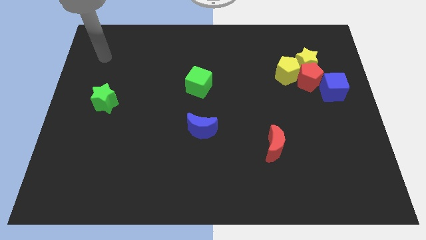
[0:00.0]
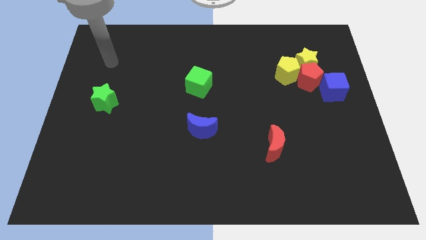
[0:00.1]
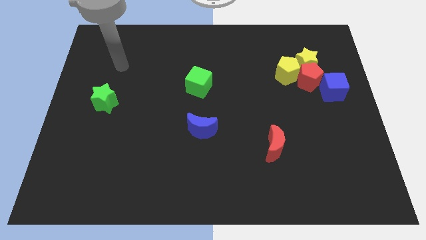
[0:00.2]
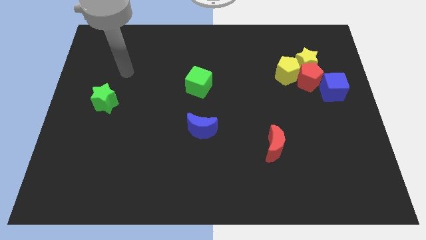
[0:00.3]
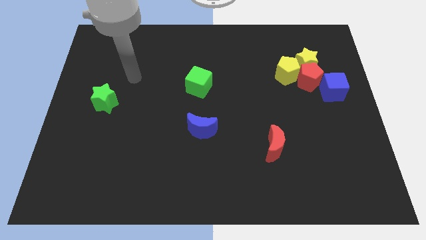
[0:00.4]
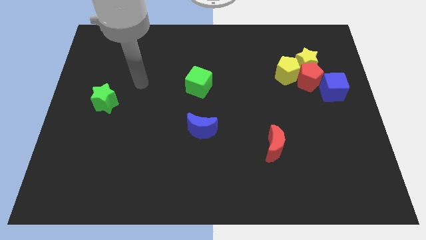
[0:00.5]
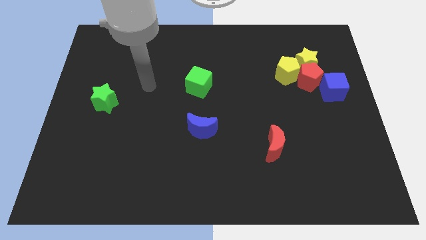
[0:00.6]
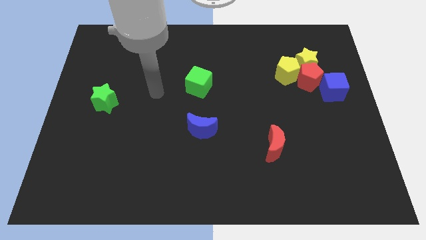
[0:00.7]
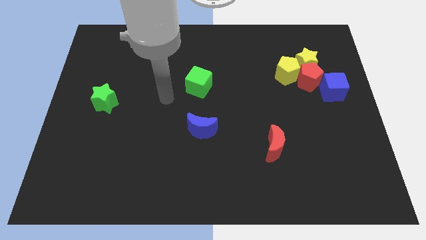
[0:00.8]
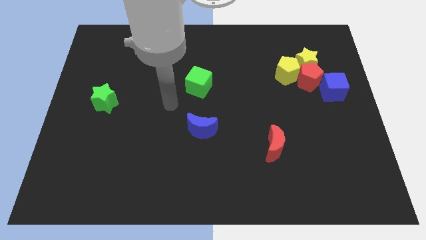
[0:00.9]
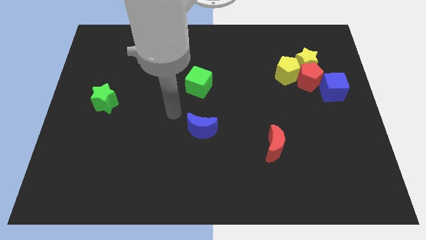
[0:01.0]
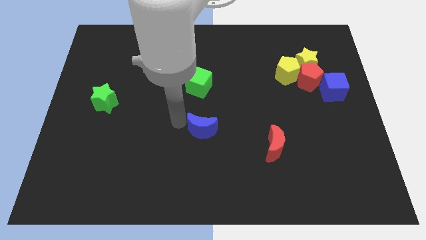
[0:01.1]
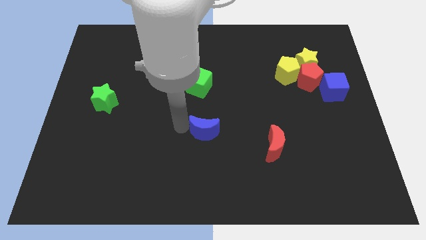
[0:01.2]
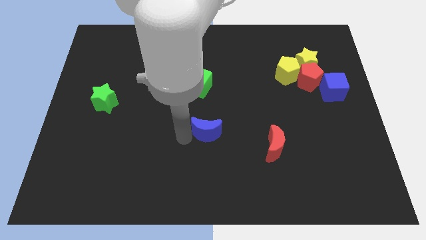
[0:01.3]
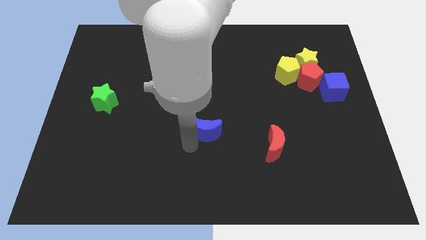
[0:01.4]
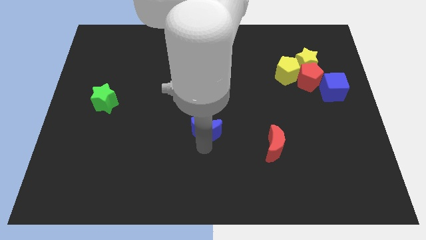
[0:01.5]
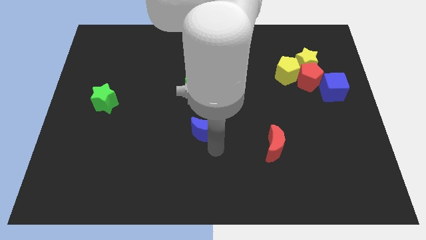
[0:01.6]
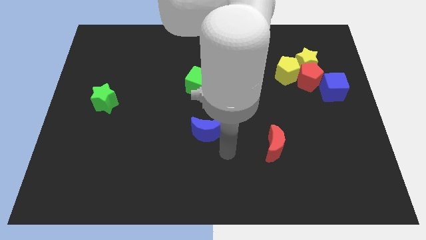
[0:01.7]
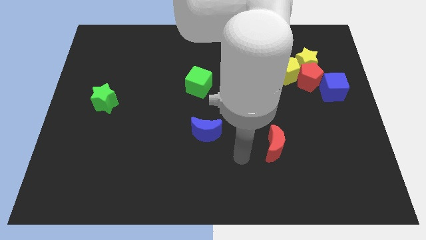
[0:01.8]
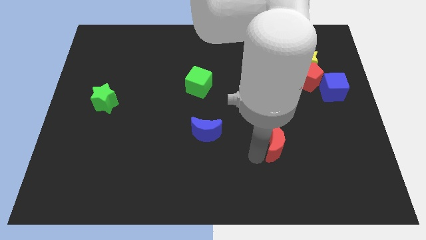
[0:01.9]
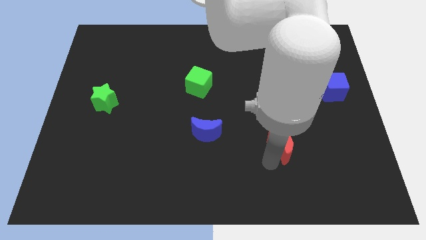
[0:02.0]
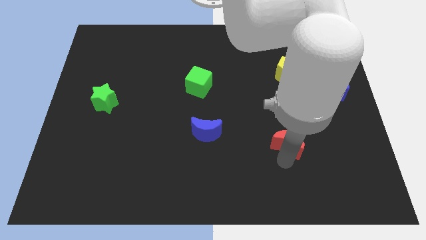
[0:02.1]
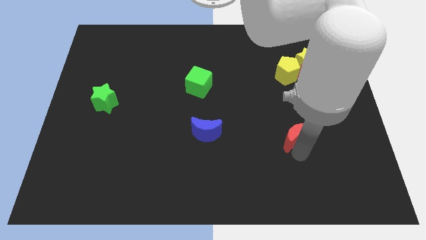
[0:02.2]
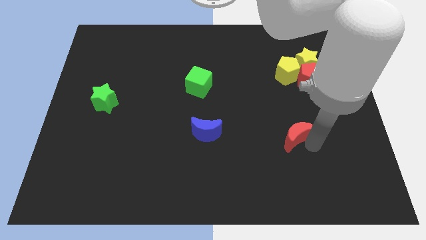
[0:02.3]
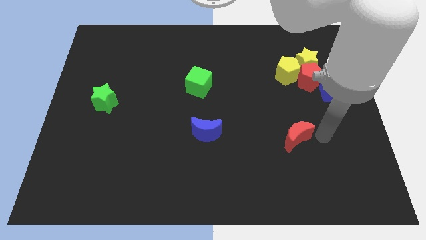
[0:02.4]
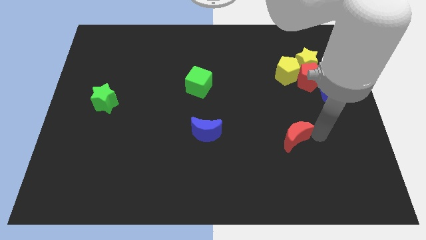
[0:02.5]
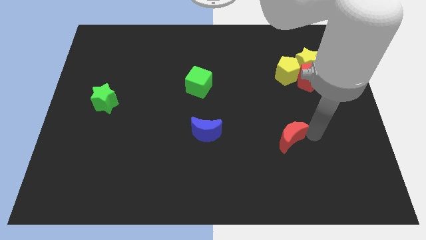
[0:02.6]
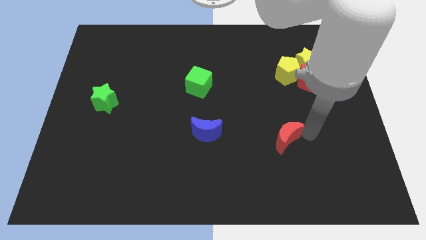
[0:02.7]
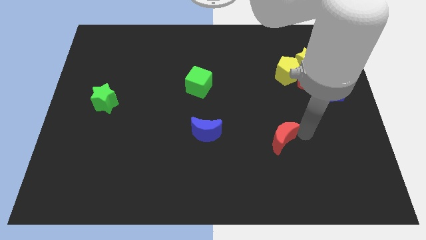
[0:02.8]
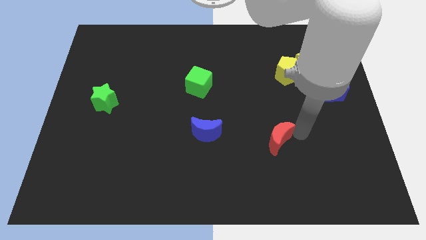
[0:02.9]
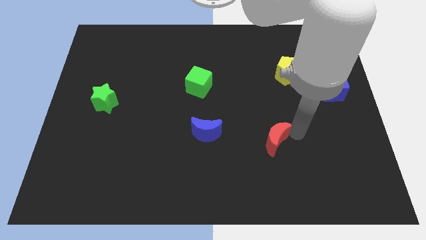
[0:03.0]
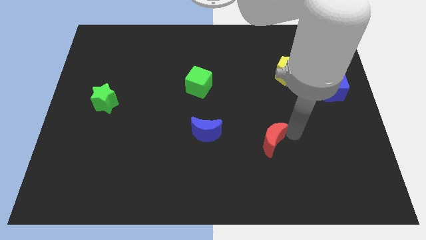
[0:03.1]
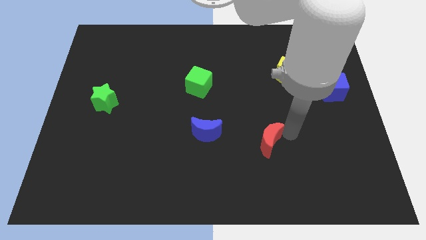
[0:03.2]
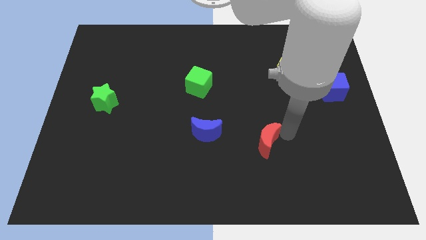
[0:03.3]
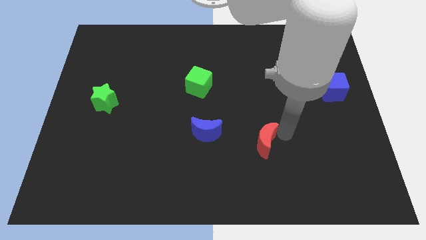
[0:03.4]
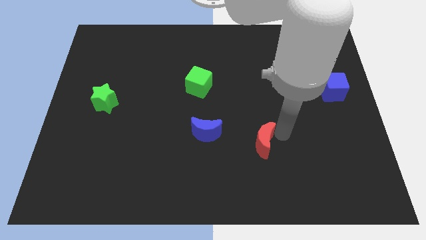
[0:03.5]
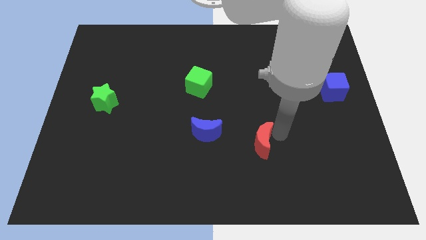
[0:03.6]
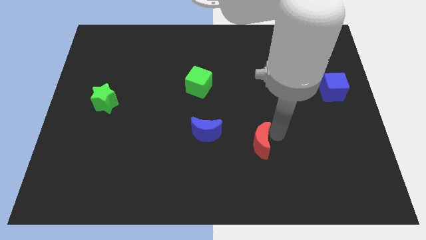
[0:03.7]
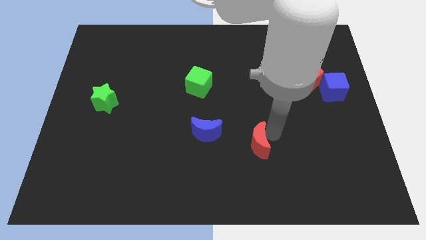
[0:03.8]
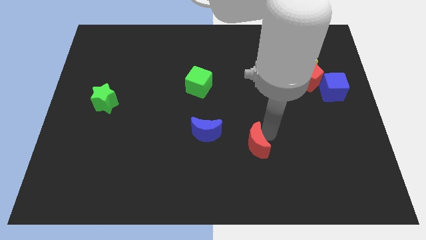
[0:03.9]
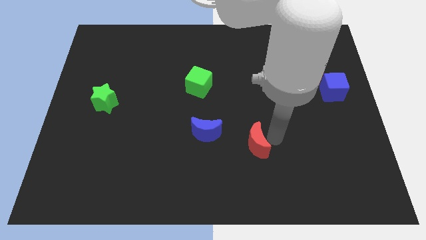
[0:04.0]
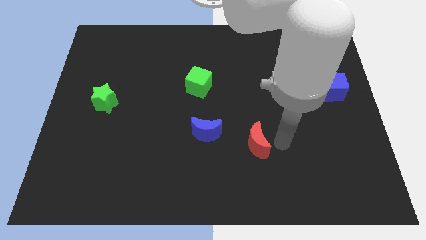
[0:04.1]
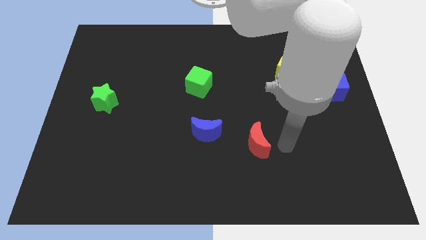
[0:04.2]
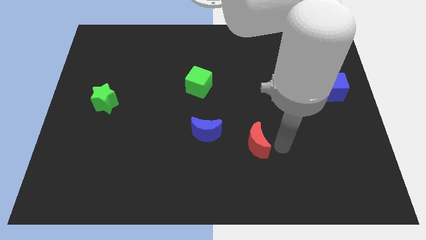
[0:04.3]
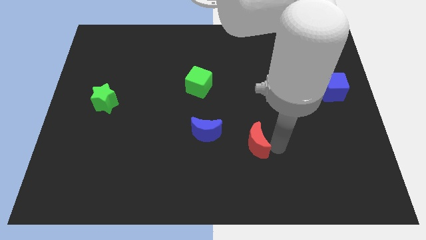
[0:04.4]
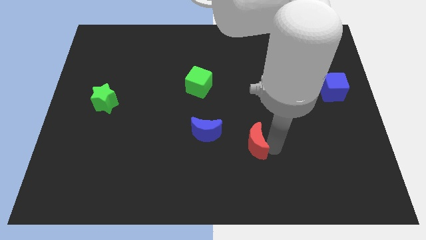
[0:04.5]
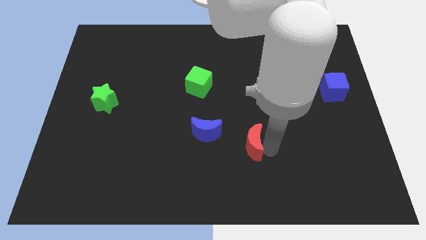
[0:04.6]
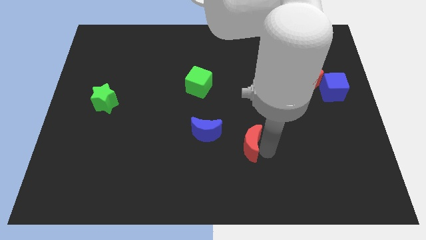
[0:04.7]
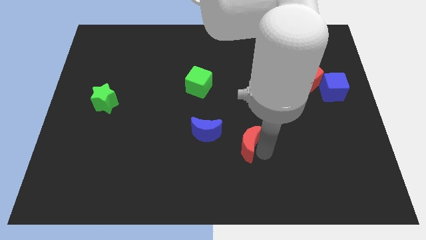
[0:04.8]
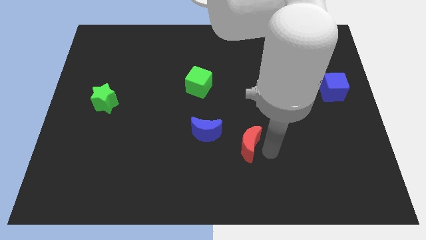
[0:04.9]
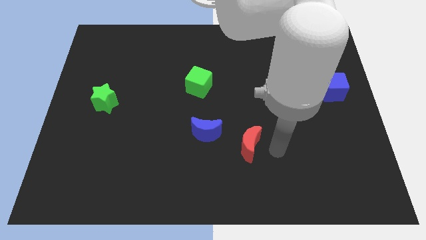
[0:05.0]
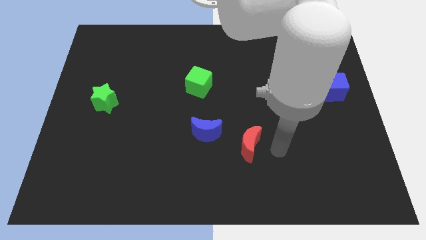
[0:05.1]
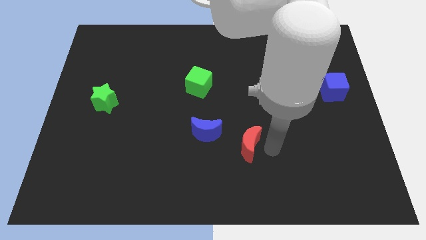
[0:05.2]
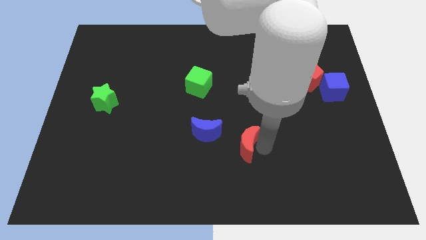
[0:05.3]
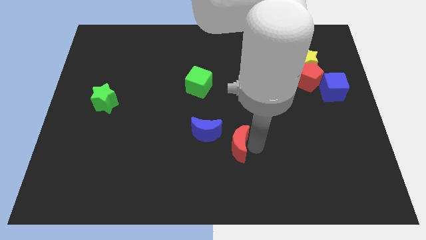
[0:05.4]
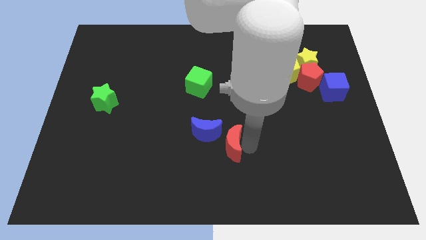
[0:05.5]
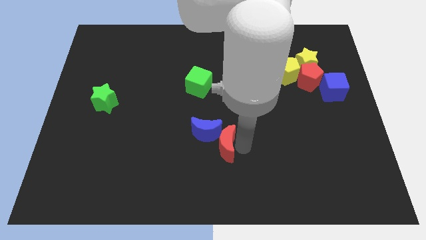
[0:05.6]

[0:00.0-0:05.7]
move the red moon next to the blue moon

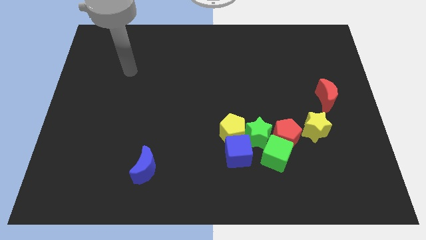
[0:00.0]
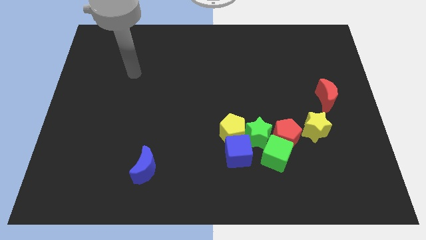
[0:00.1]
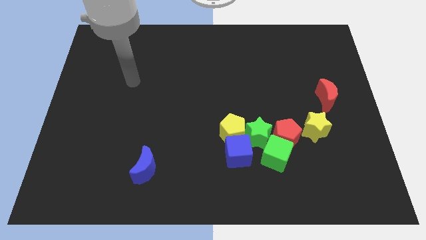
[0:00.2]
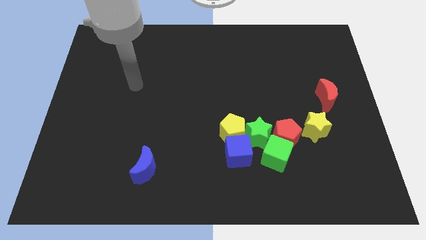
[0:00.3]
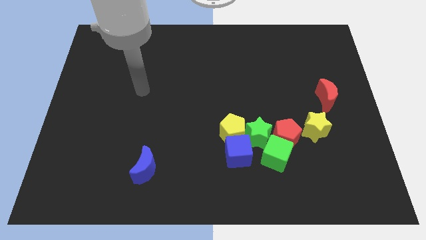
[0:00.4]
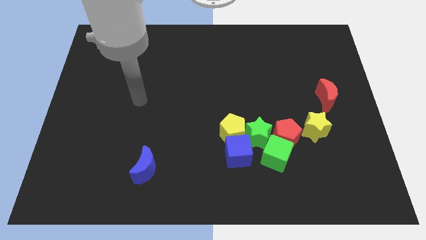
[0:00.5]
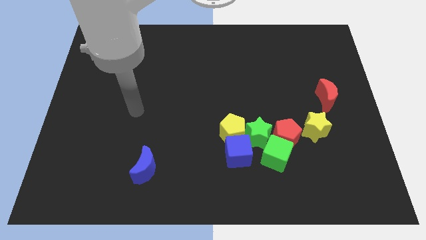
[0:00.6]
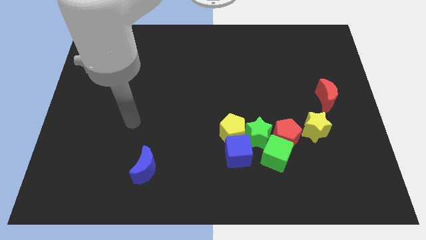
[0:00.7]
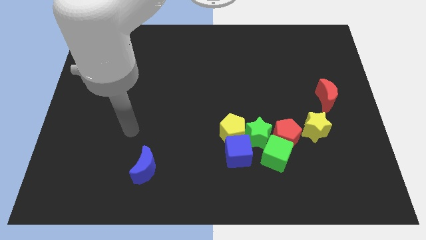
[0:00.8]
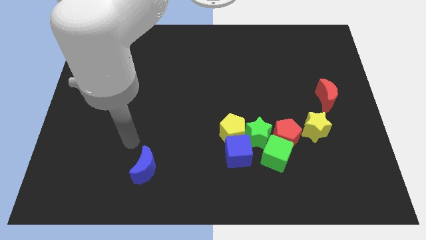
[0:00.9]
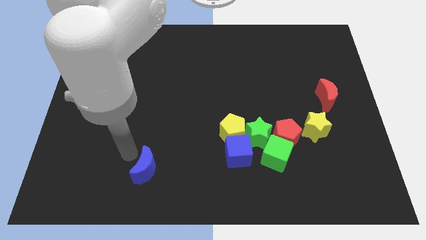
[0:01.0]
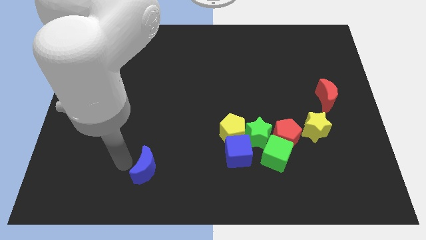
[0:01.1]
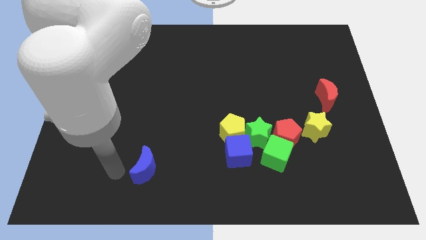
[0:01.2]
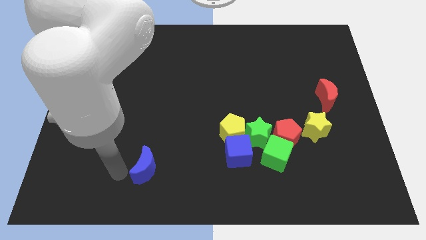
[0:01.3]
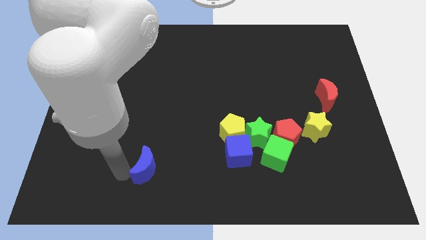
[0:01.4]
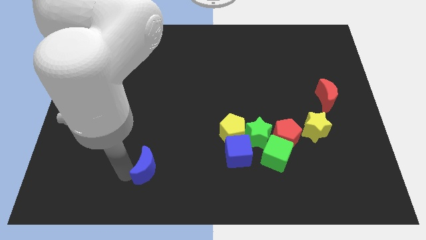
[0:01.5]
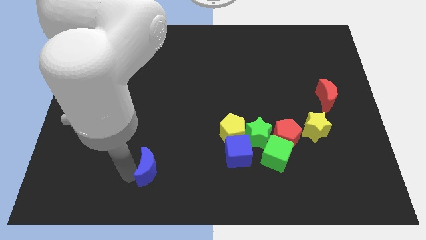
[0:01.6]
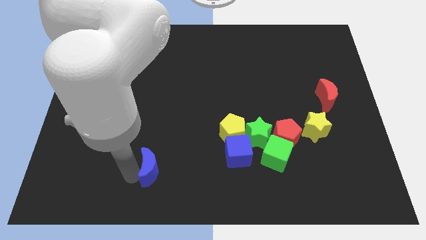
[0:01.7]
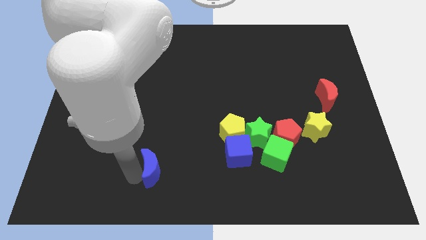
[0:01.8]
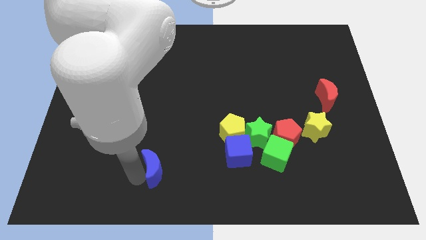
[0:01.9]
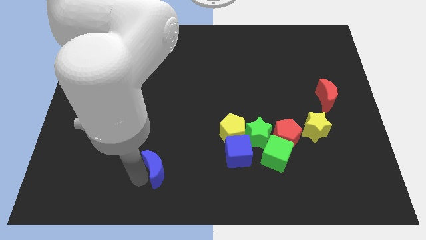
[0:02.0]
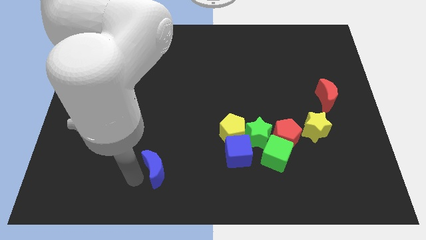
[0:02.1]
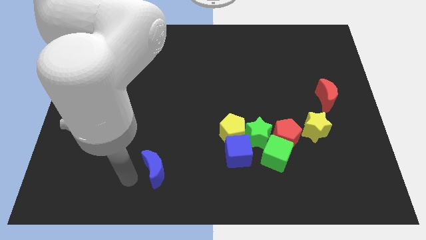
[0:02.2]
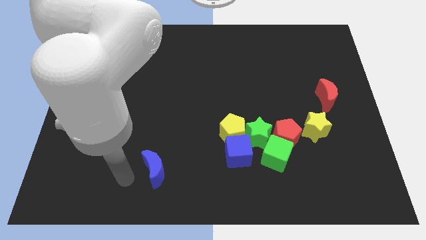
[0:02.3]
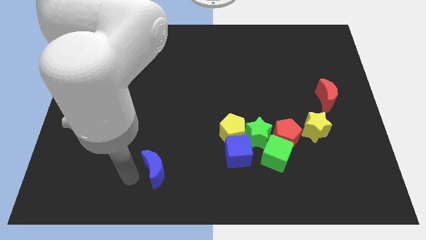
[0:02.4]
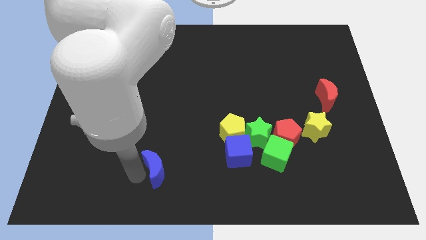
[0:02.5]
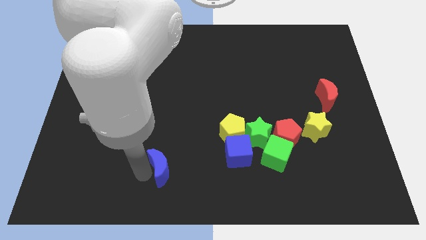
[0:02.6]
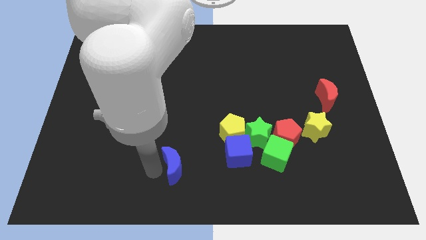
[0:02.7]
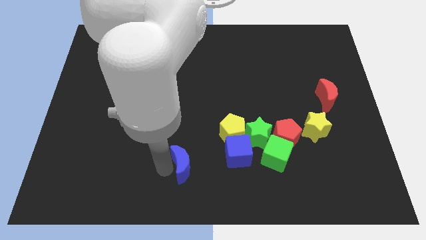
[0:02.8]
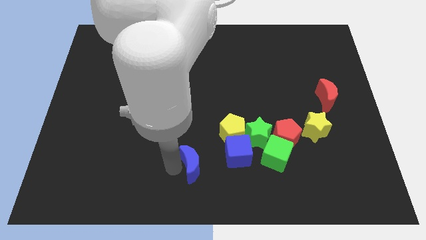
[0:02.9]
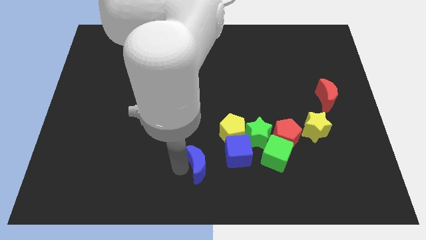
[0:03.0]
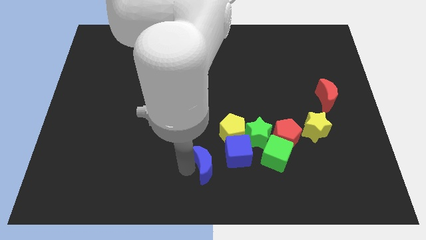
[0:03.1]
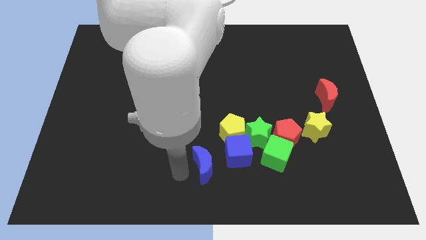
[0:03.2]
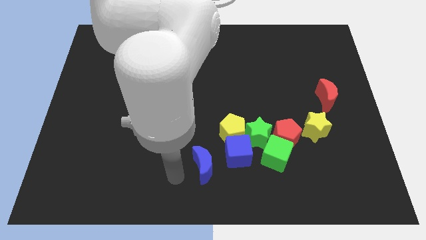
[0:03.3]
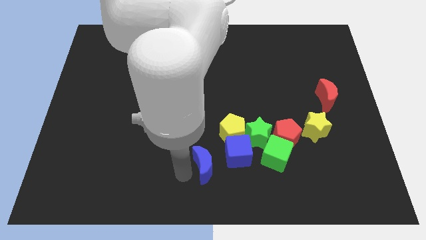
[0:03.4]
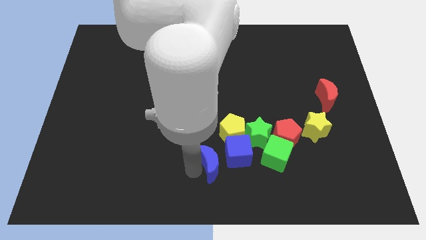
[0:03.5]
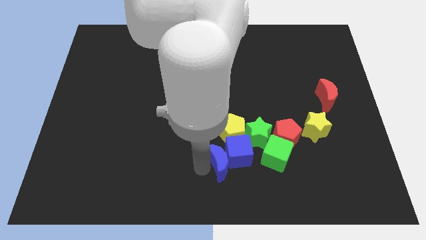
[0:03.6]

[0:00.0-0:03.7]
push the blue moon next to the blue cube
